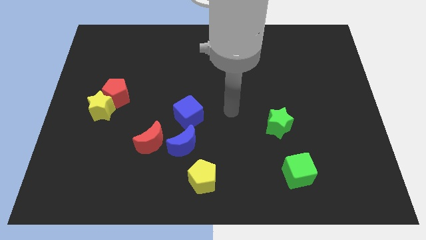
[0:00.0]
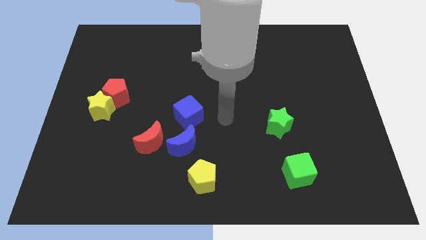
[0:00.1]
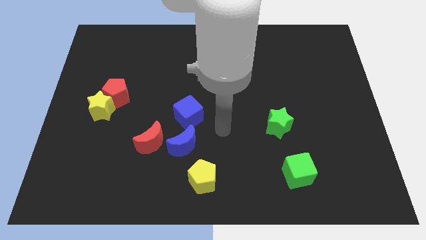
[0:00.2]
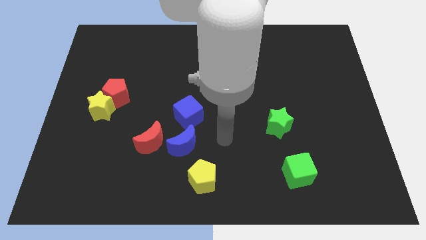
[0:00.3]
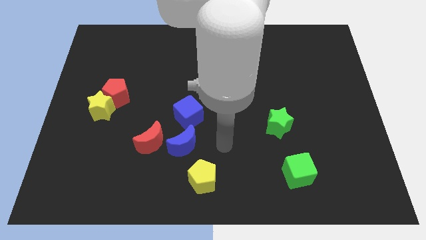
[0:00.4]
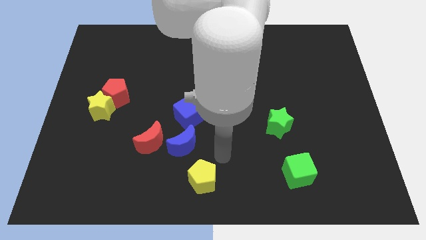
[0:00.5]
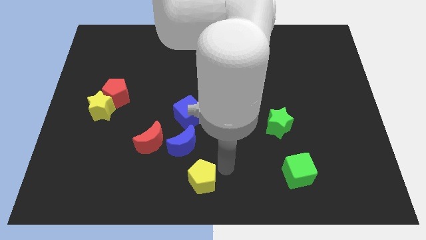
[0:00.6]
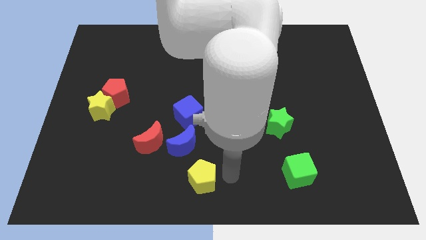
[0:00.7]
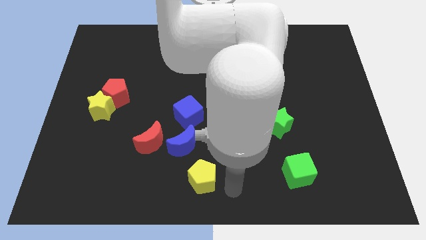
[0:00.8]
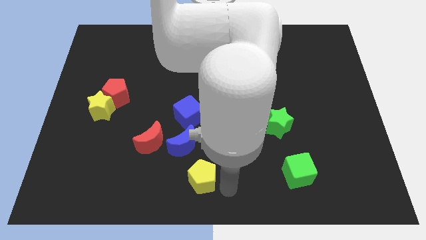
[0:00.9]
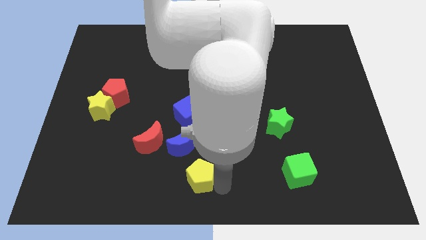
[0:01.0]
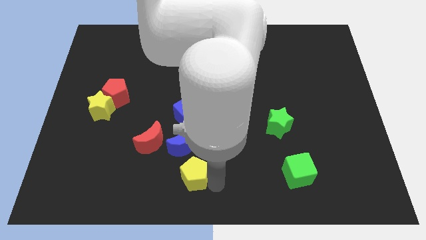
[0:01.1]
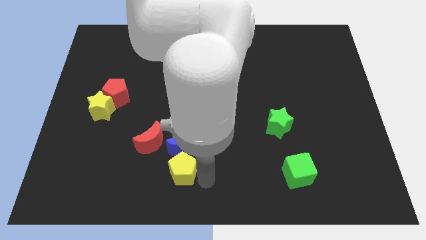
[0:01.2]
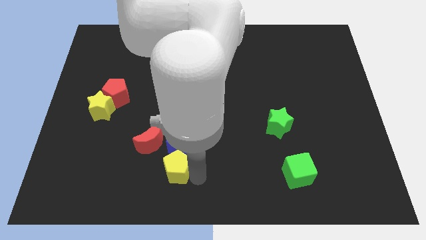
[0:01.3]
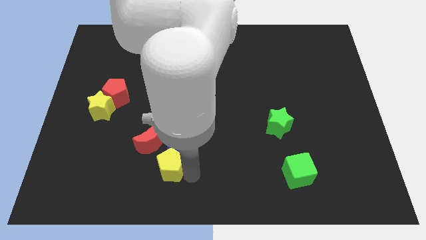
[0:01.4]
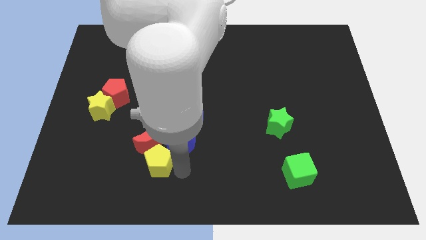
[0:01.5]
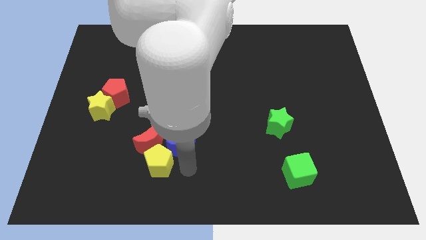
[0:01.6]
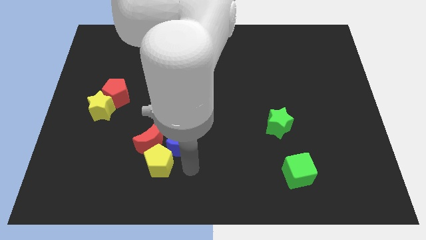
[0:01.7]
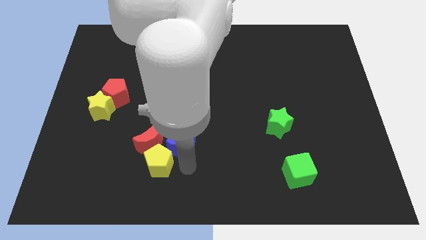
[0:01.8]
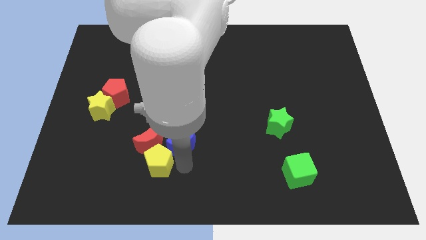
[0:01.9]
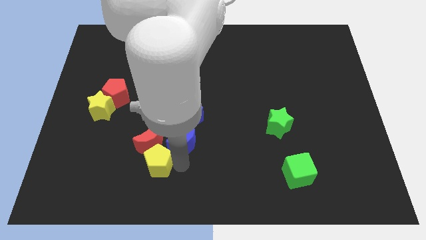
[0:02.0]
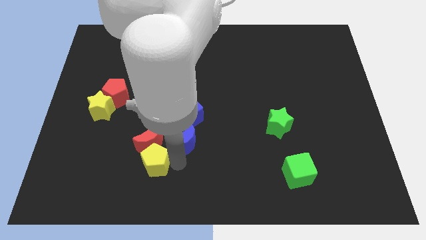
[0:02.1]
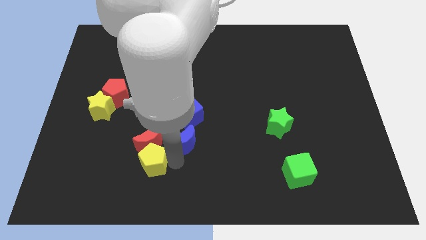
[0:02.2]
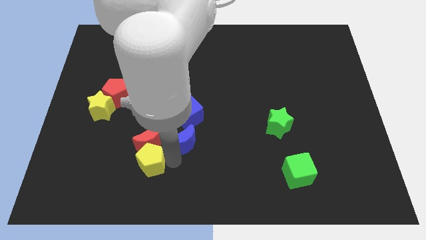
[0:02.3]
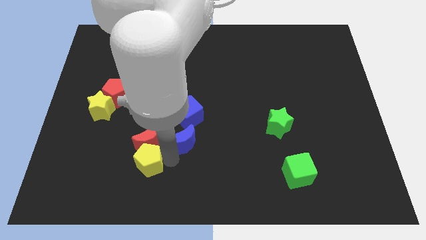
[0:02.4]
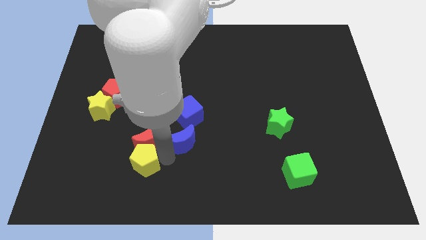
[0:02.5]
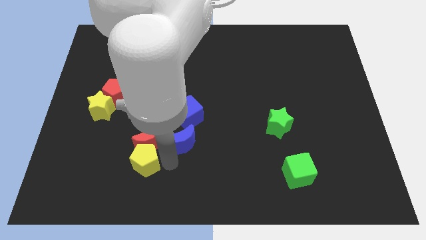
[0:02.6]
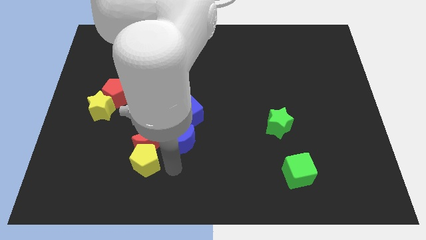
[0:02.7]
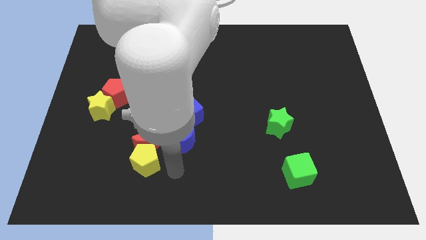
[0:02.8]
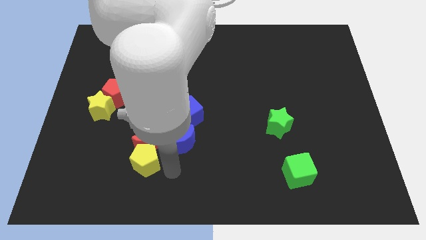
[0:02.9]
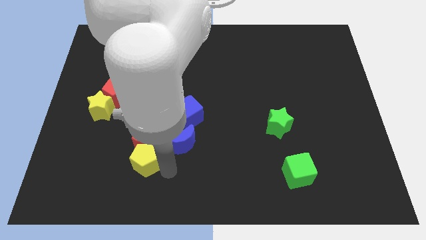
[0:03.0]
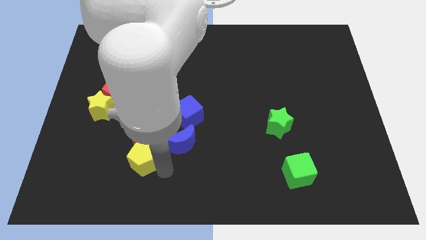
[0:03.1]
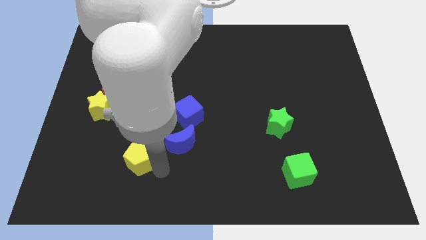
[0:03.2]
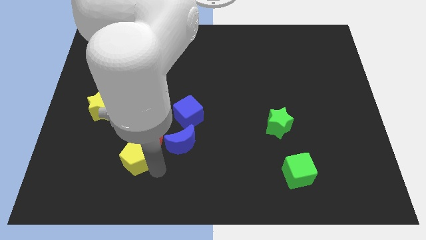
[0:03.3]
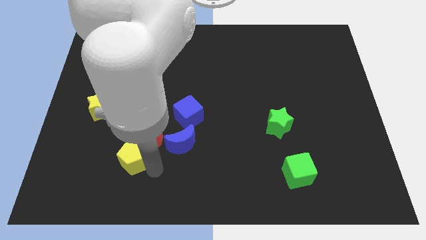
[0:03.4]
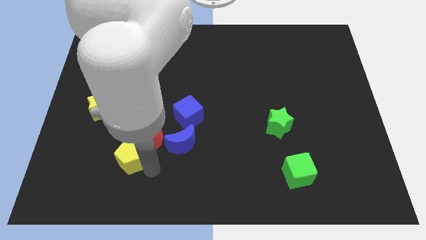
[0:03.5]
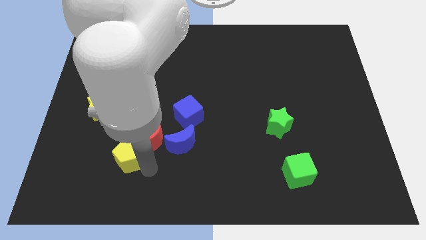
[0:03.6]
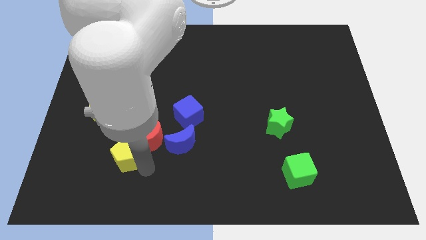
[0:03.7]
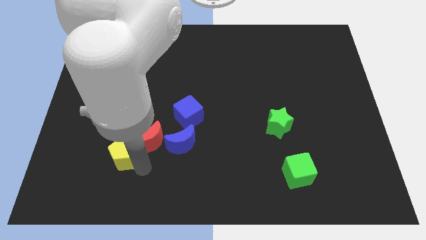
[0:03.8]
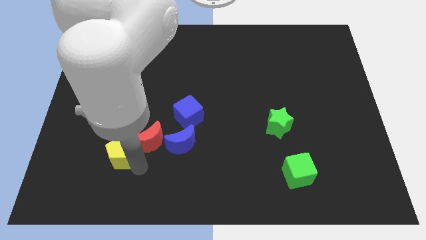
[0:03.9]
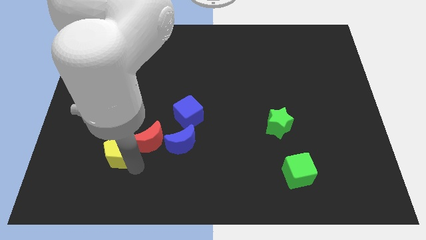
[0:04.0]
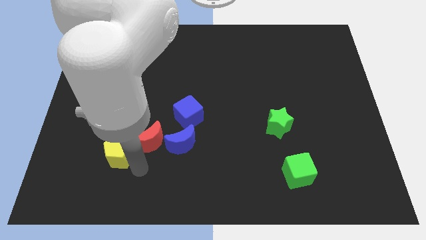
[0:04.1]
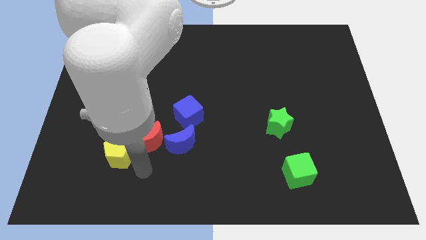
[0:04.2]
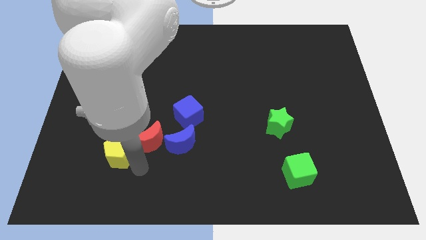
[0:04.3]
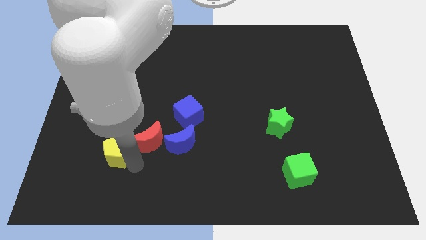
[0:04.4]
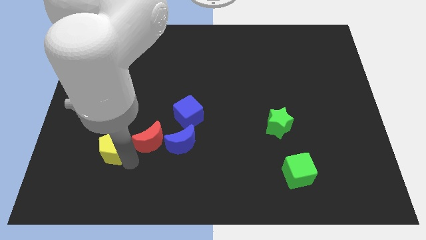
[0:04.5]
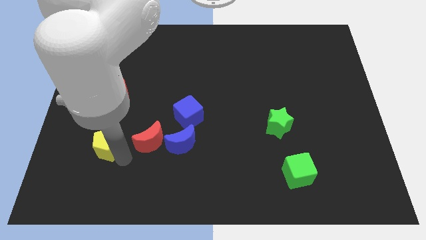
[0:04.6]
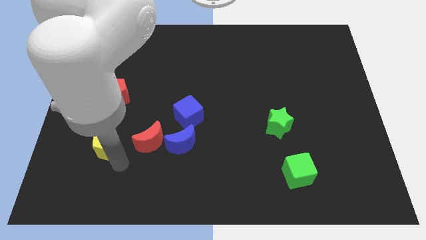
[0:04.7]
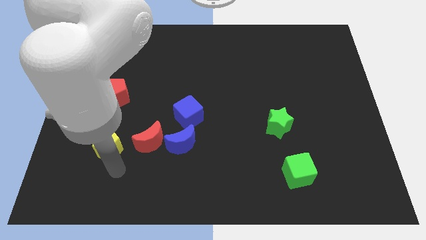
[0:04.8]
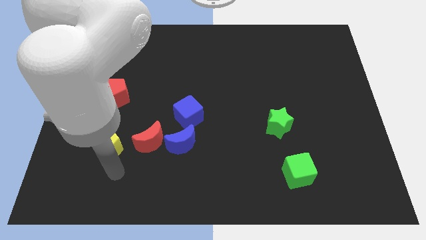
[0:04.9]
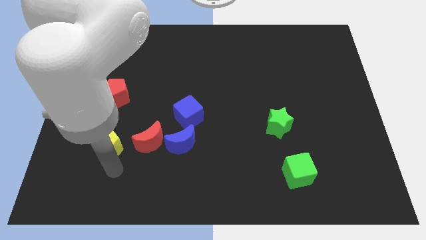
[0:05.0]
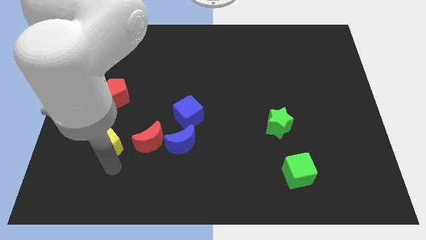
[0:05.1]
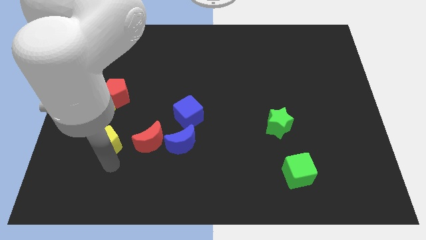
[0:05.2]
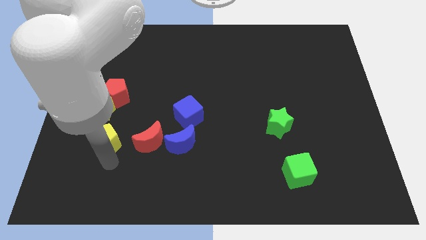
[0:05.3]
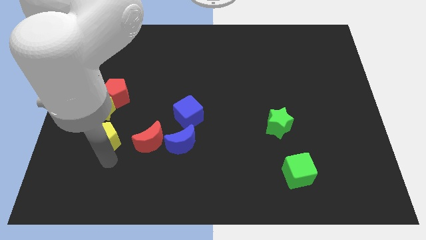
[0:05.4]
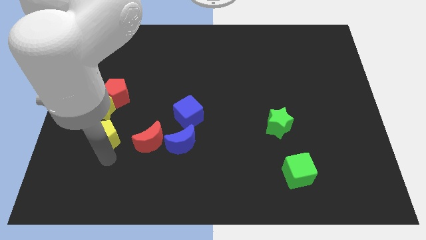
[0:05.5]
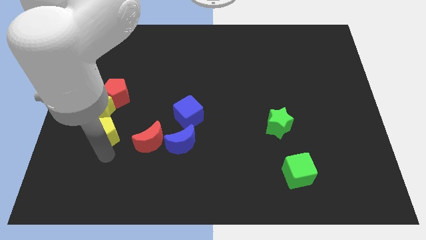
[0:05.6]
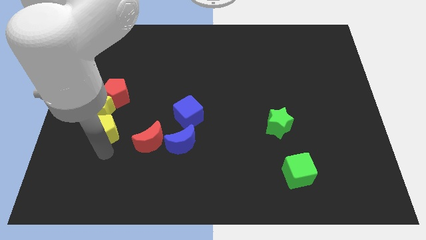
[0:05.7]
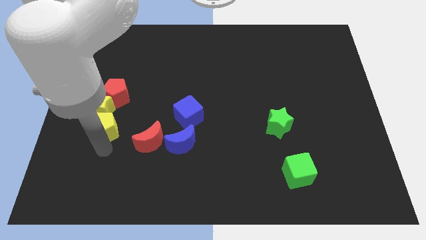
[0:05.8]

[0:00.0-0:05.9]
put the yellow pentagon to the yellow star

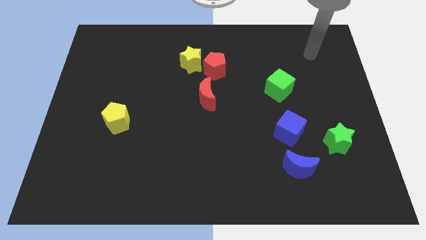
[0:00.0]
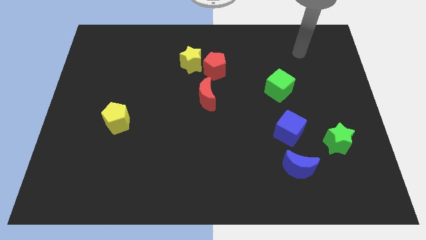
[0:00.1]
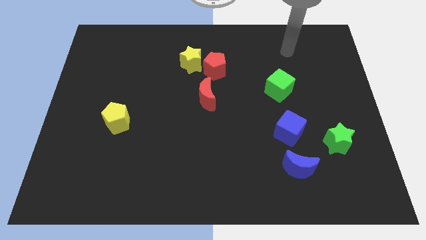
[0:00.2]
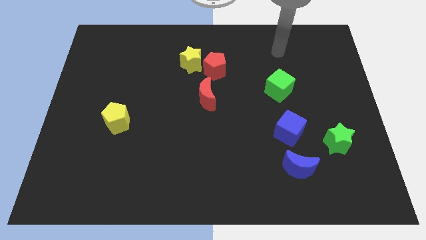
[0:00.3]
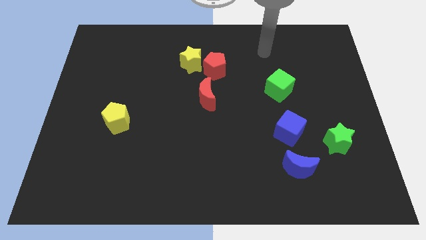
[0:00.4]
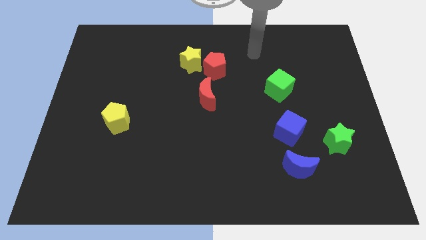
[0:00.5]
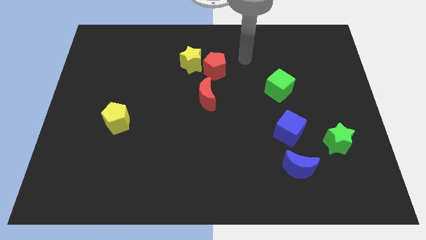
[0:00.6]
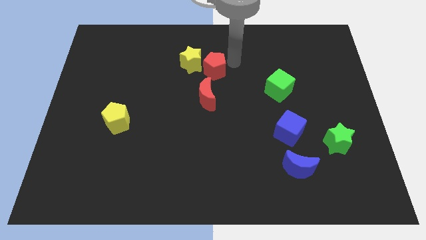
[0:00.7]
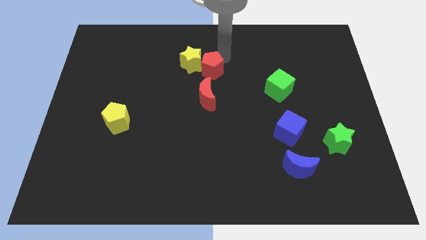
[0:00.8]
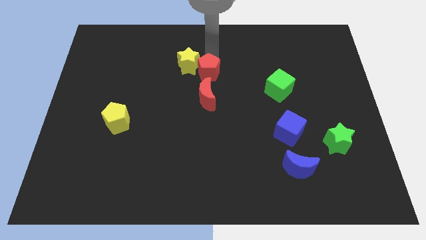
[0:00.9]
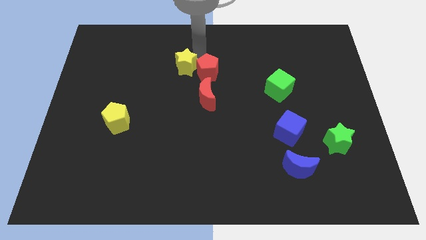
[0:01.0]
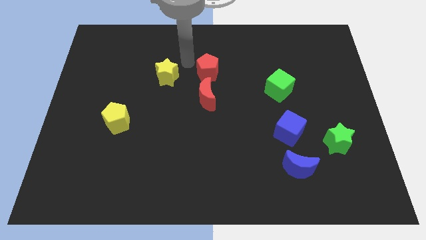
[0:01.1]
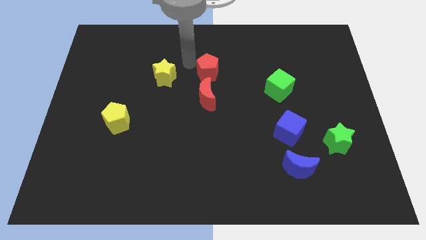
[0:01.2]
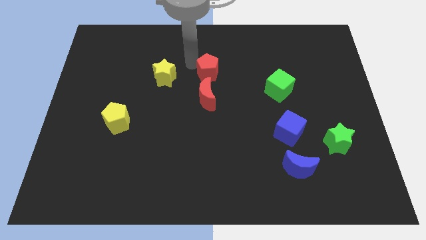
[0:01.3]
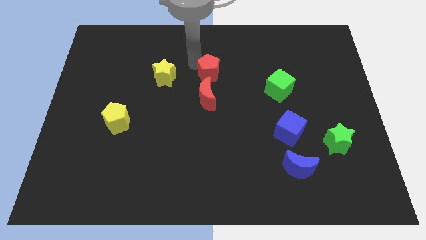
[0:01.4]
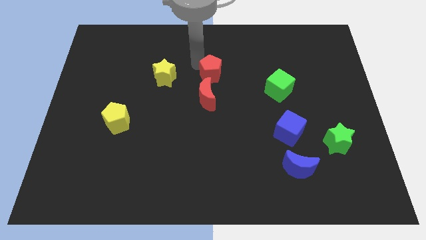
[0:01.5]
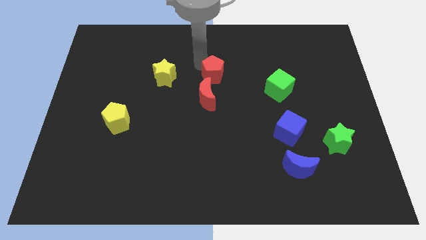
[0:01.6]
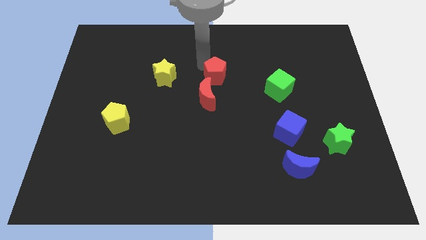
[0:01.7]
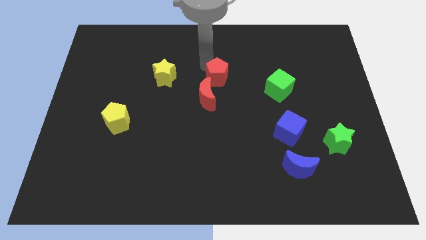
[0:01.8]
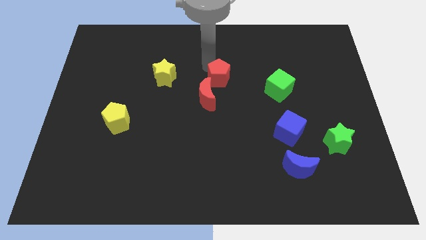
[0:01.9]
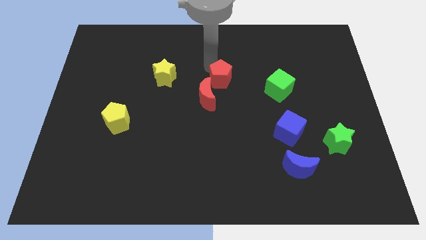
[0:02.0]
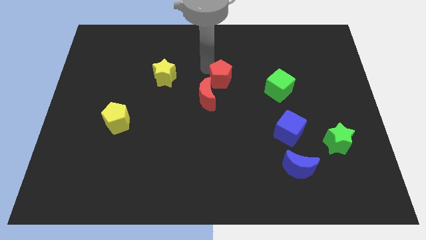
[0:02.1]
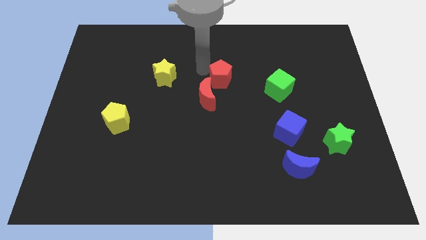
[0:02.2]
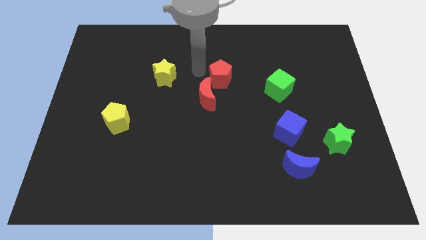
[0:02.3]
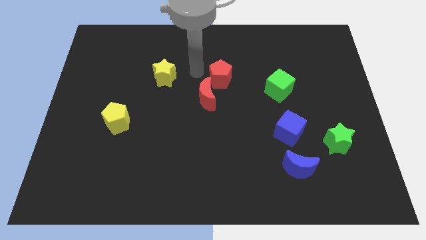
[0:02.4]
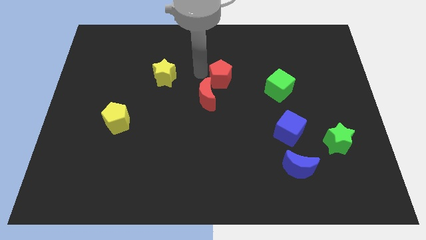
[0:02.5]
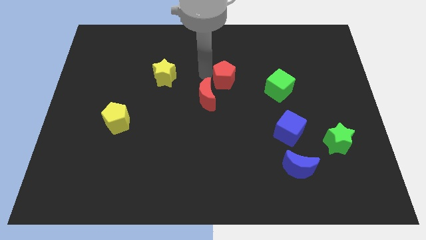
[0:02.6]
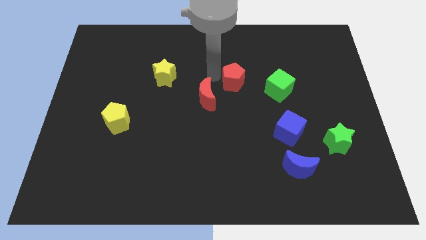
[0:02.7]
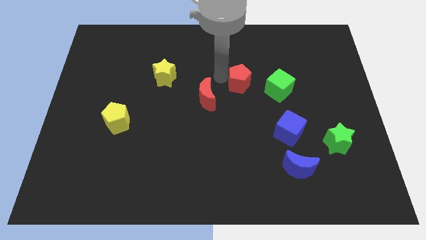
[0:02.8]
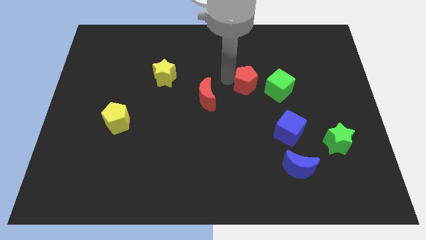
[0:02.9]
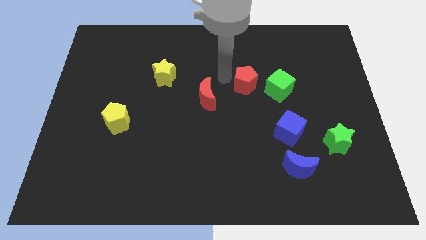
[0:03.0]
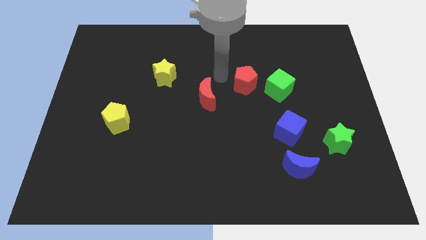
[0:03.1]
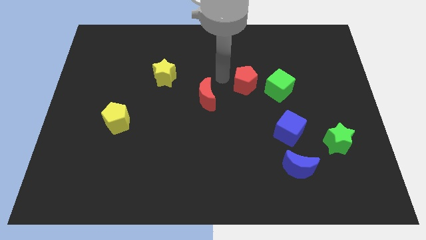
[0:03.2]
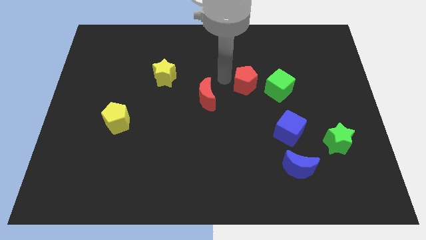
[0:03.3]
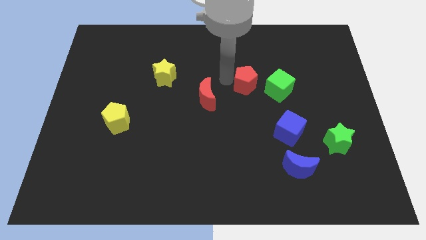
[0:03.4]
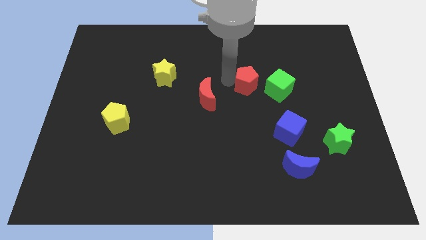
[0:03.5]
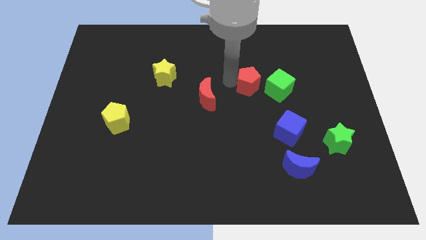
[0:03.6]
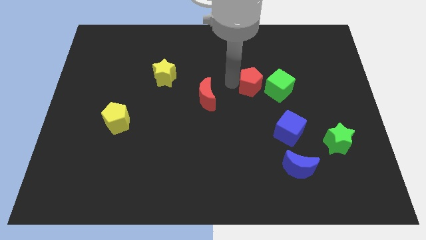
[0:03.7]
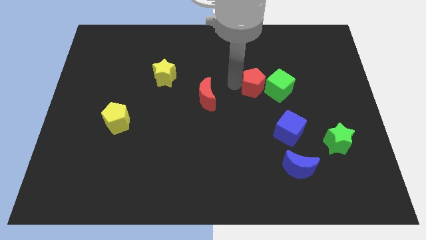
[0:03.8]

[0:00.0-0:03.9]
slide the red pentagon close to the green cube
